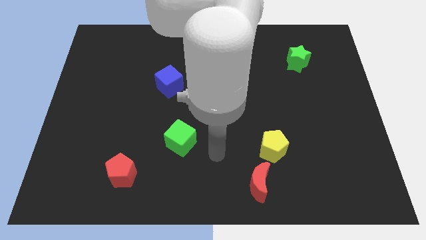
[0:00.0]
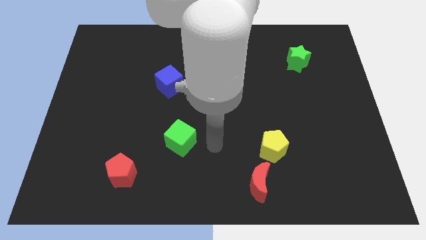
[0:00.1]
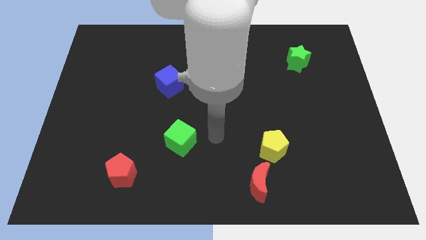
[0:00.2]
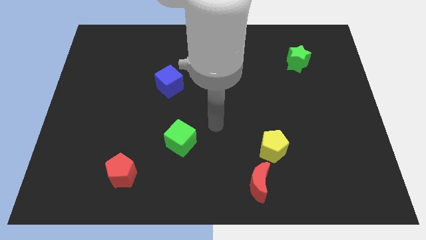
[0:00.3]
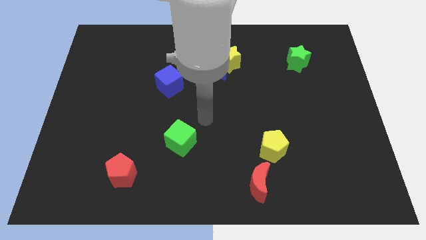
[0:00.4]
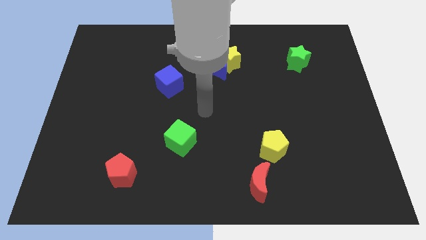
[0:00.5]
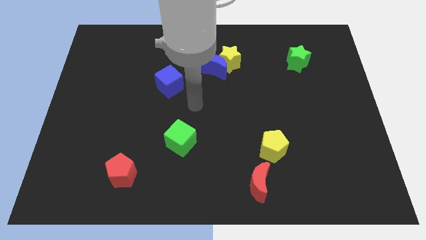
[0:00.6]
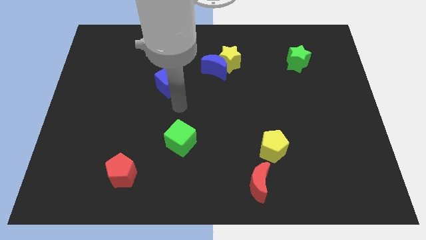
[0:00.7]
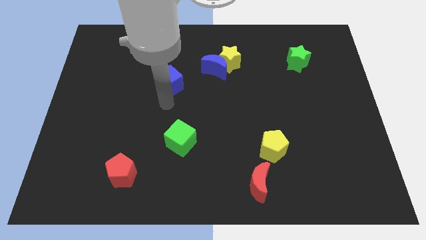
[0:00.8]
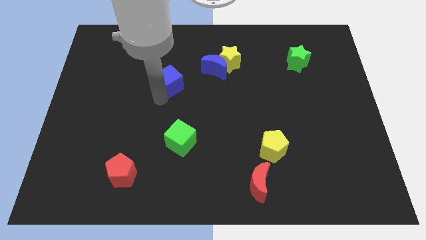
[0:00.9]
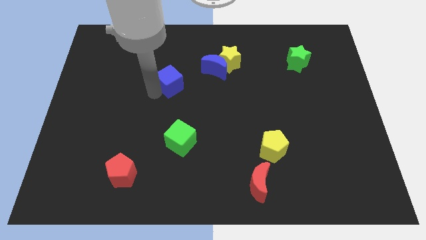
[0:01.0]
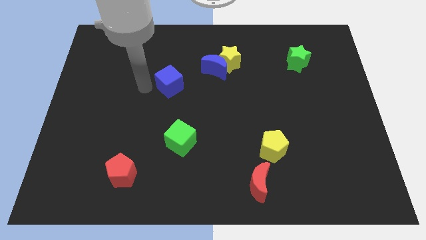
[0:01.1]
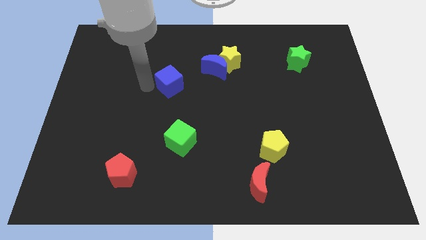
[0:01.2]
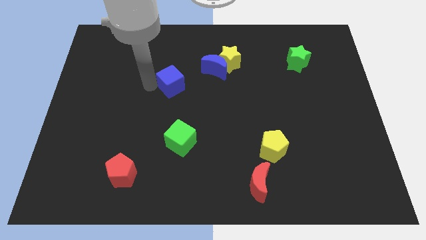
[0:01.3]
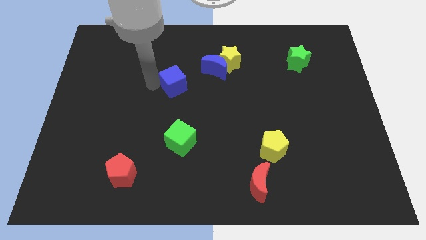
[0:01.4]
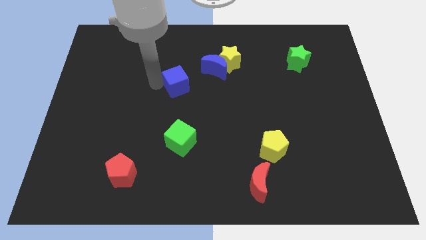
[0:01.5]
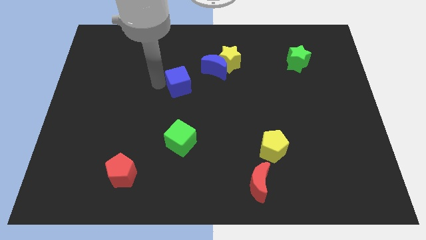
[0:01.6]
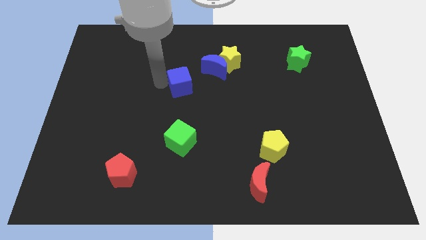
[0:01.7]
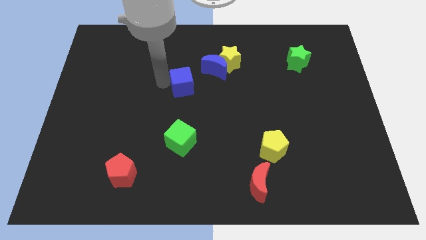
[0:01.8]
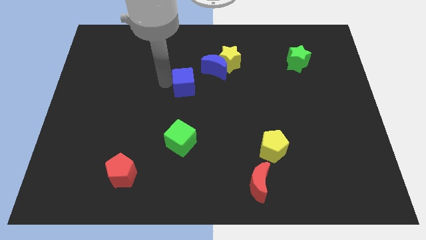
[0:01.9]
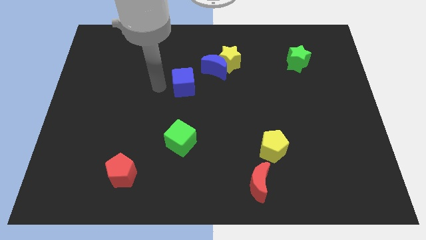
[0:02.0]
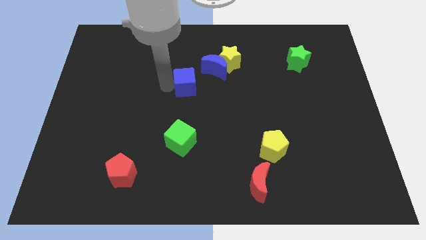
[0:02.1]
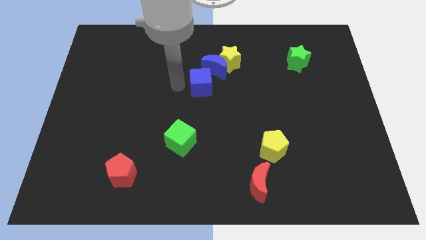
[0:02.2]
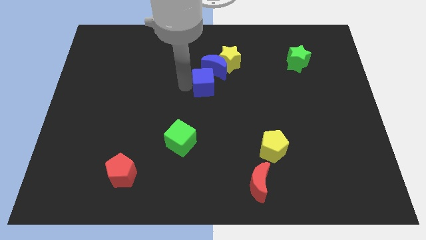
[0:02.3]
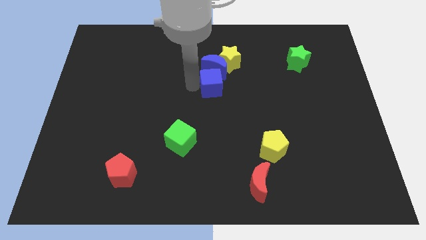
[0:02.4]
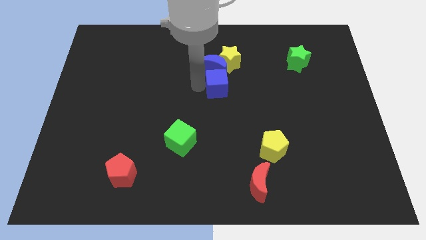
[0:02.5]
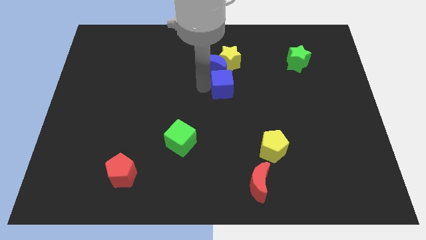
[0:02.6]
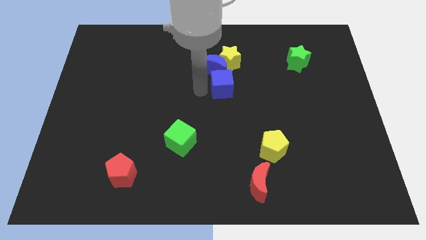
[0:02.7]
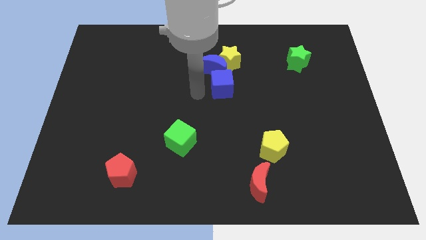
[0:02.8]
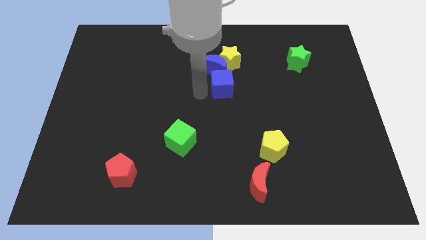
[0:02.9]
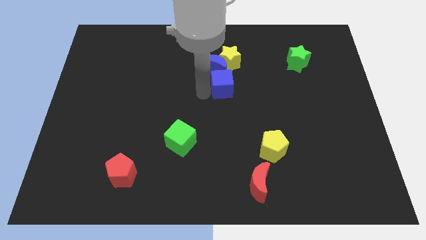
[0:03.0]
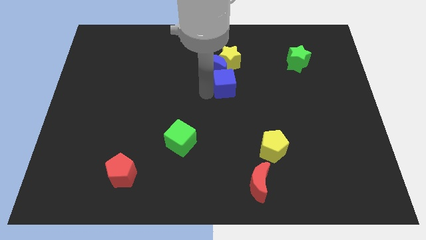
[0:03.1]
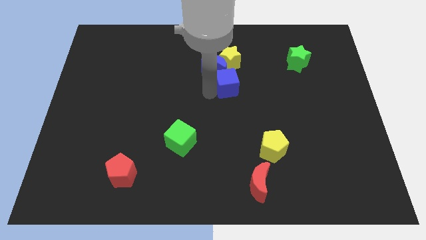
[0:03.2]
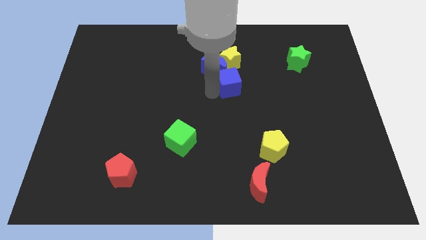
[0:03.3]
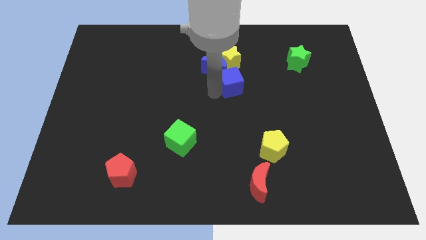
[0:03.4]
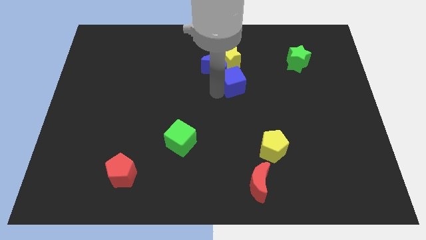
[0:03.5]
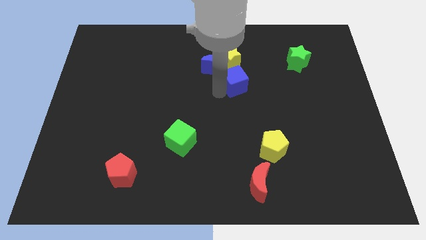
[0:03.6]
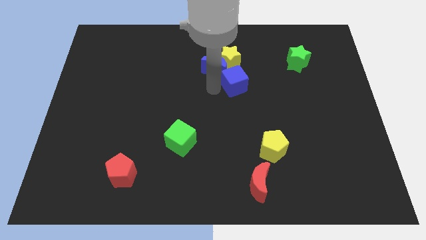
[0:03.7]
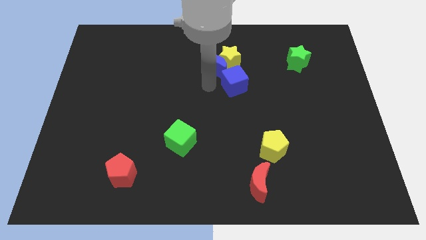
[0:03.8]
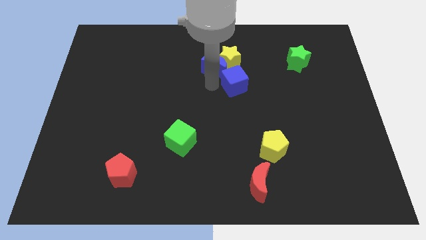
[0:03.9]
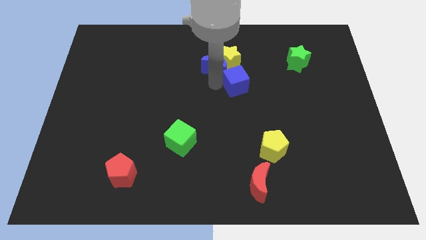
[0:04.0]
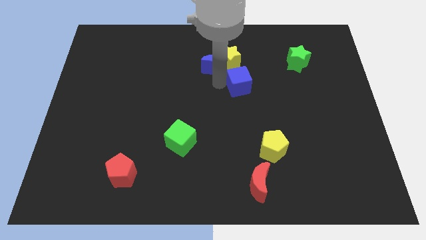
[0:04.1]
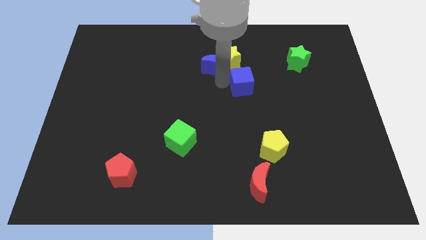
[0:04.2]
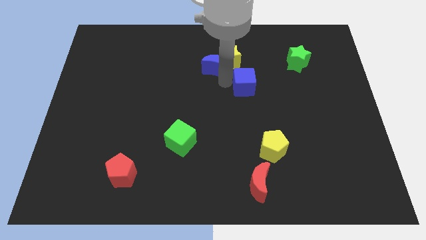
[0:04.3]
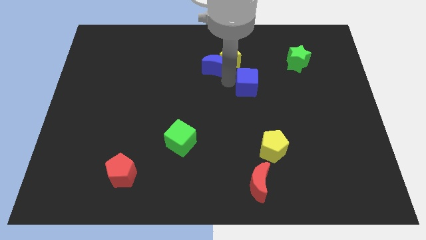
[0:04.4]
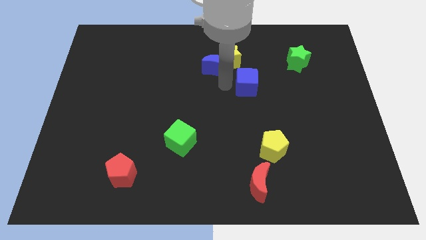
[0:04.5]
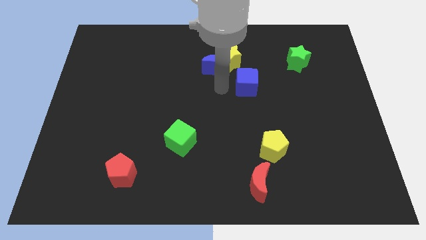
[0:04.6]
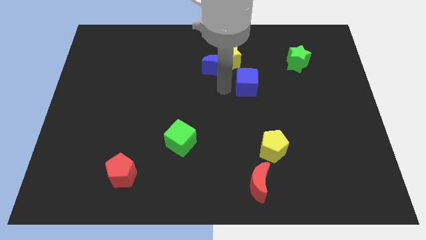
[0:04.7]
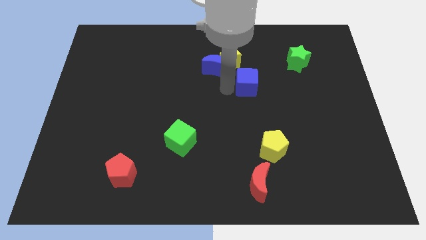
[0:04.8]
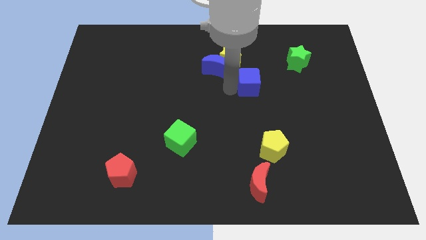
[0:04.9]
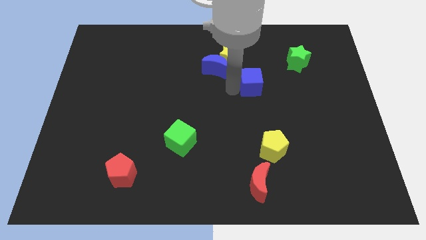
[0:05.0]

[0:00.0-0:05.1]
slide the blue cube right

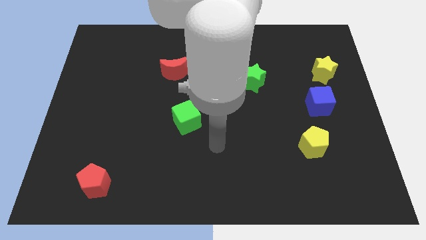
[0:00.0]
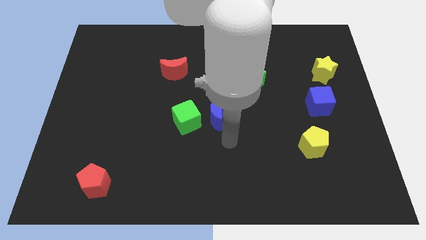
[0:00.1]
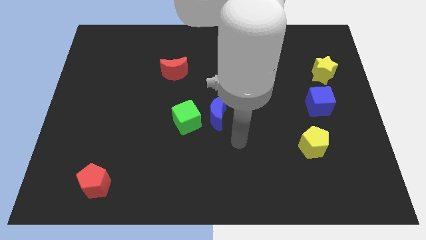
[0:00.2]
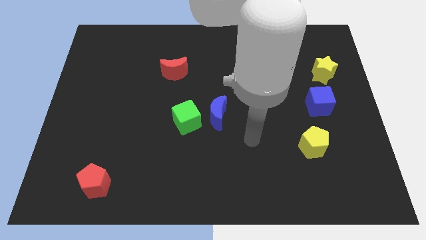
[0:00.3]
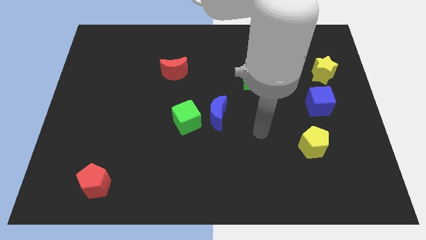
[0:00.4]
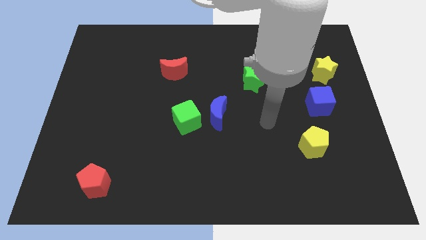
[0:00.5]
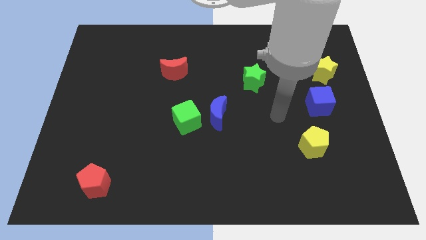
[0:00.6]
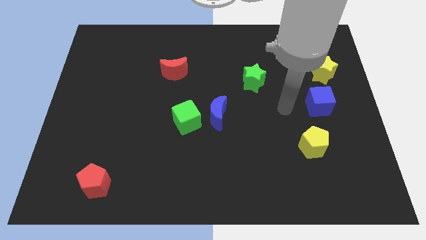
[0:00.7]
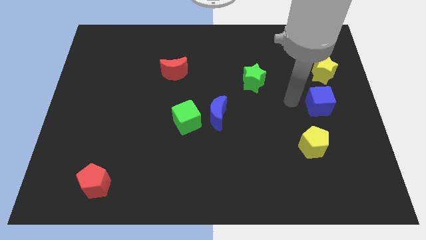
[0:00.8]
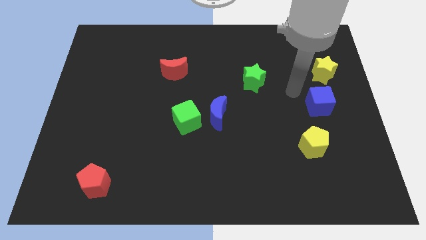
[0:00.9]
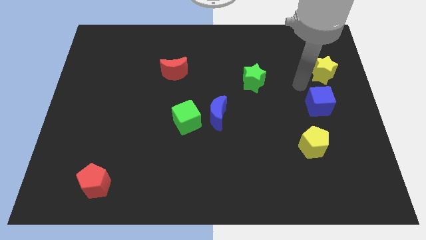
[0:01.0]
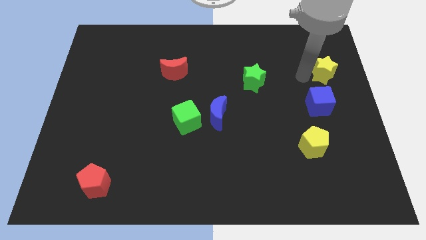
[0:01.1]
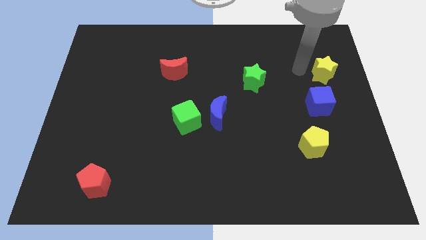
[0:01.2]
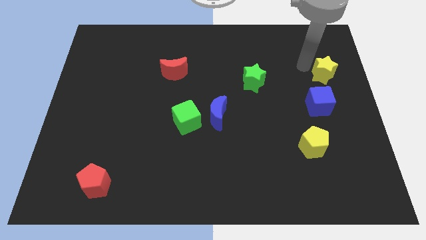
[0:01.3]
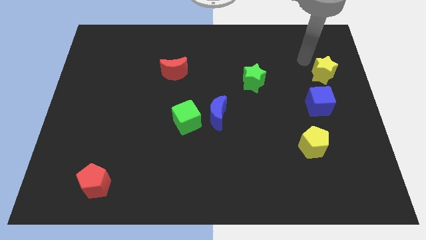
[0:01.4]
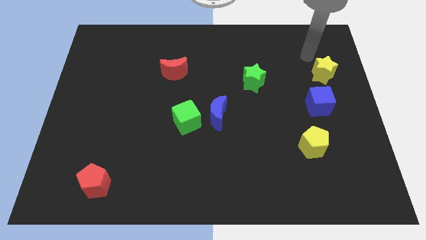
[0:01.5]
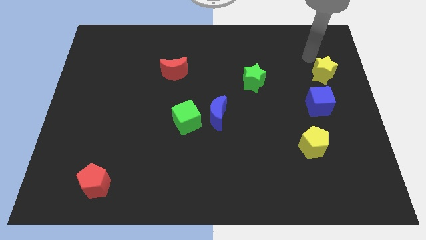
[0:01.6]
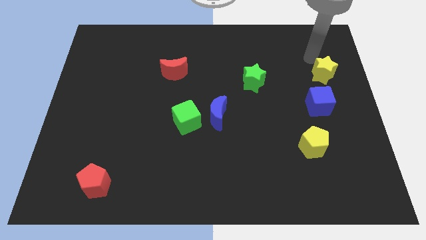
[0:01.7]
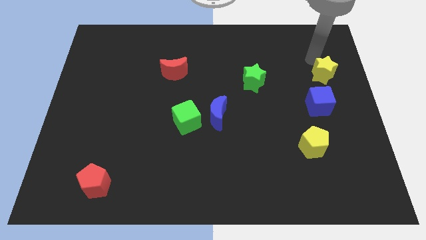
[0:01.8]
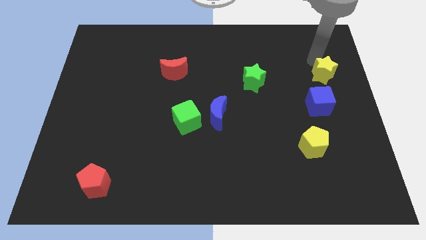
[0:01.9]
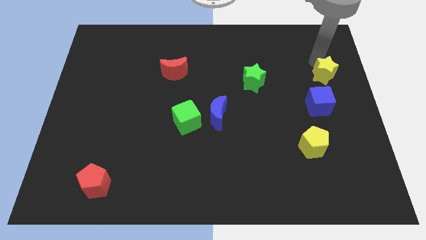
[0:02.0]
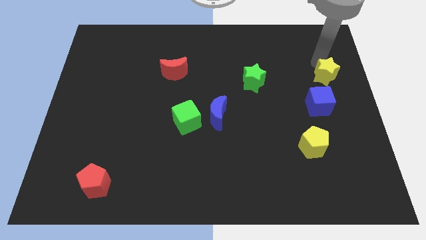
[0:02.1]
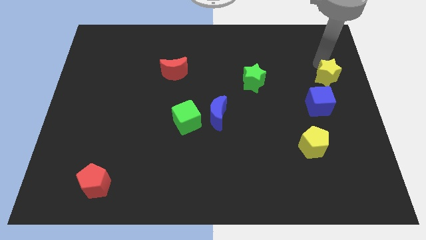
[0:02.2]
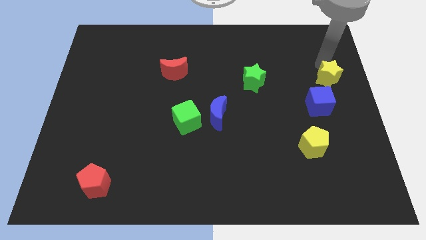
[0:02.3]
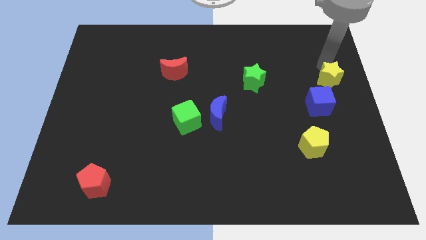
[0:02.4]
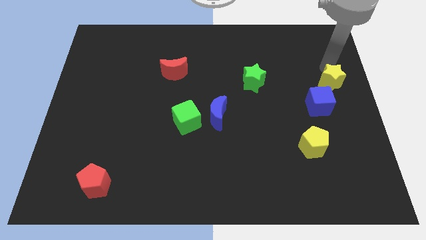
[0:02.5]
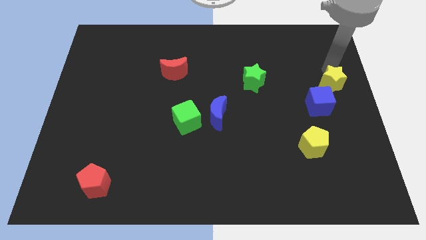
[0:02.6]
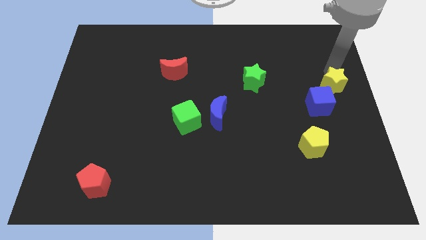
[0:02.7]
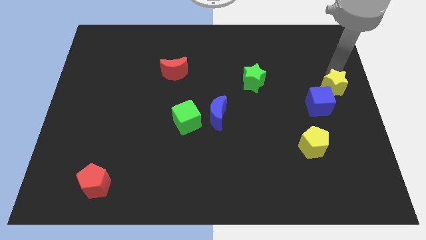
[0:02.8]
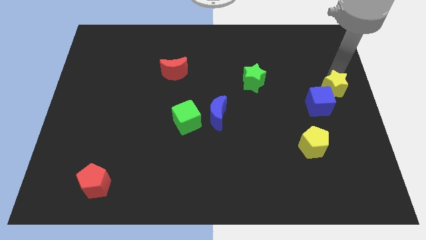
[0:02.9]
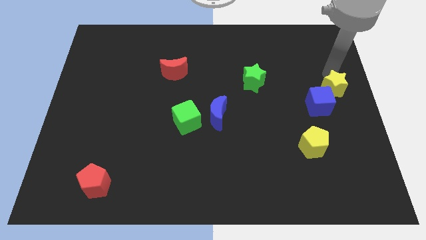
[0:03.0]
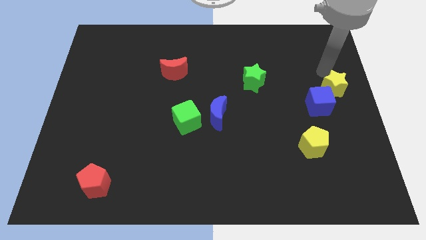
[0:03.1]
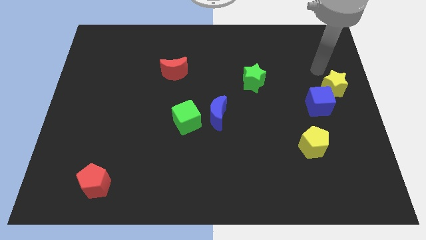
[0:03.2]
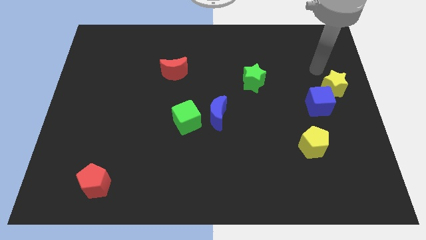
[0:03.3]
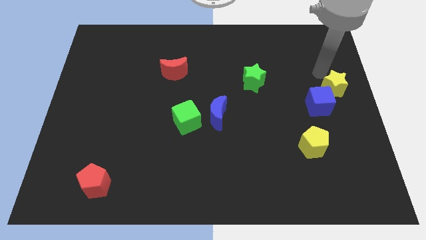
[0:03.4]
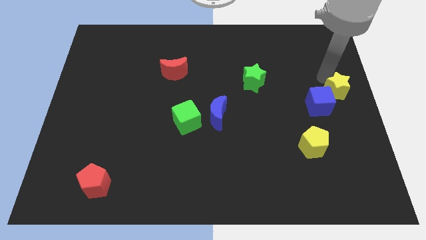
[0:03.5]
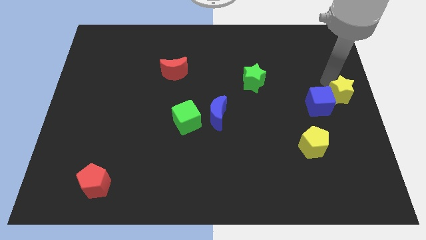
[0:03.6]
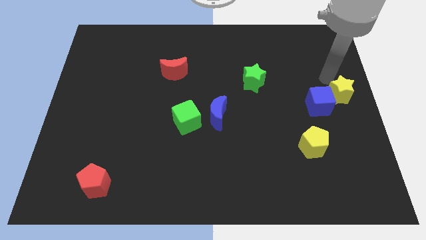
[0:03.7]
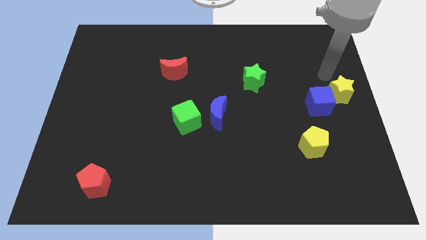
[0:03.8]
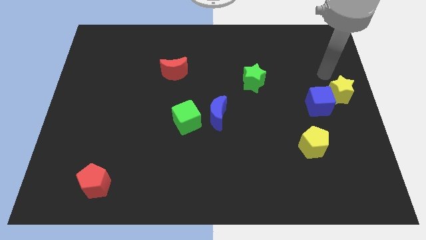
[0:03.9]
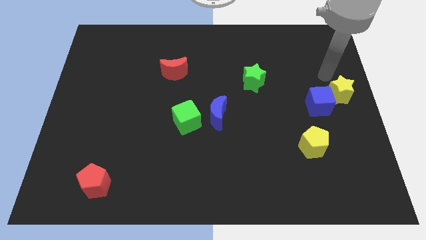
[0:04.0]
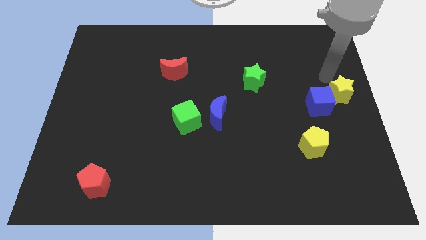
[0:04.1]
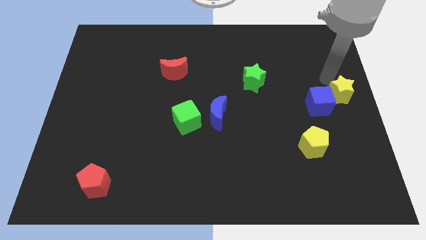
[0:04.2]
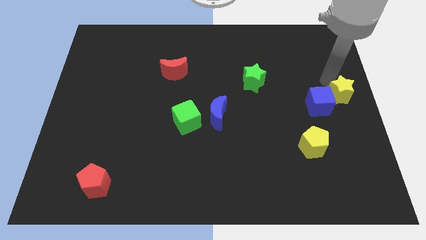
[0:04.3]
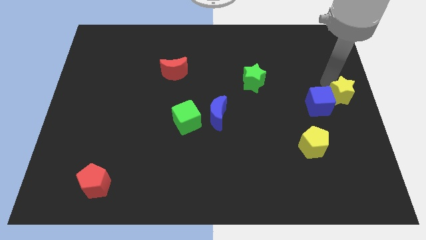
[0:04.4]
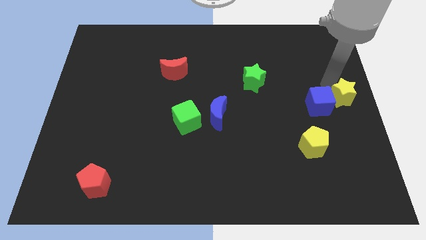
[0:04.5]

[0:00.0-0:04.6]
slide the yellow star down slightly
